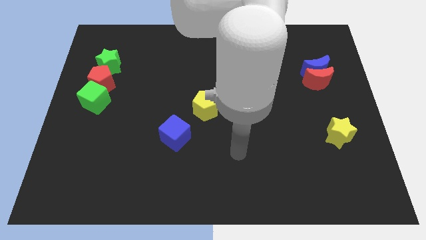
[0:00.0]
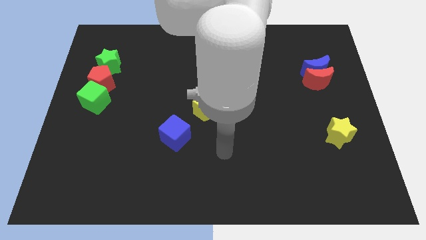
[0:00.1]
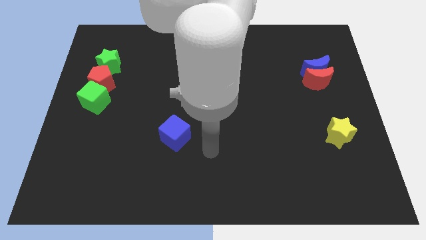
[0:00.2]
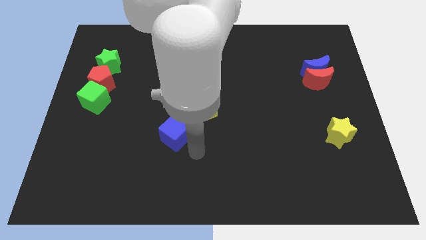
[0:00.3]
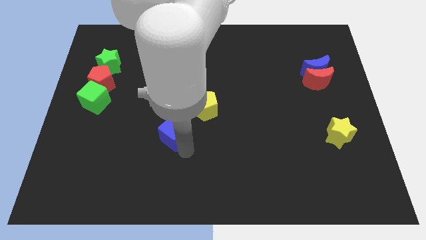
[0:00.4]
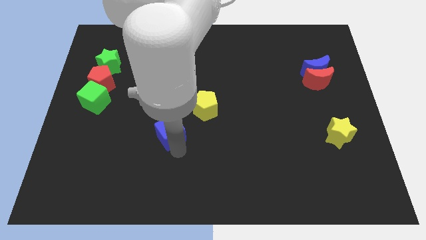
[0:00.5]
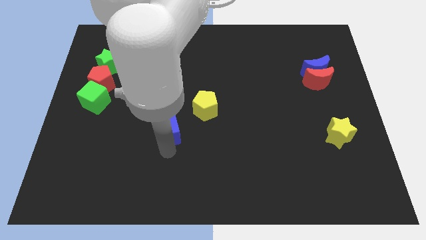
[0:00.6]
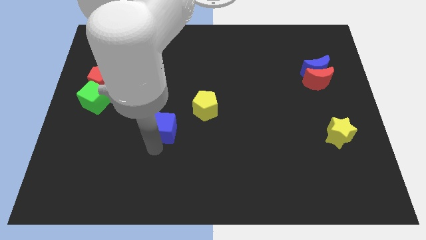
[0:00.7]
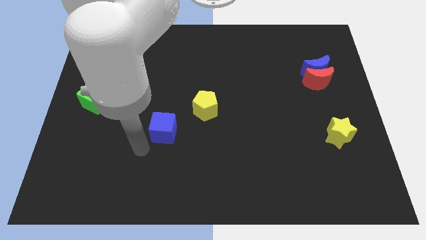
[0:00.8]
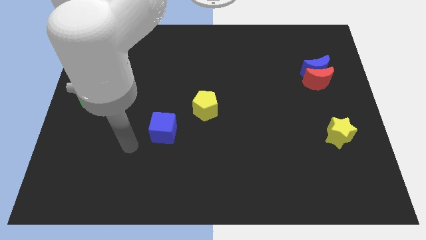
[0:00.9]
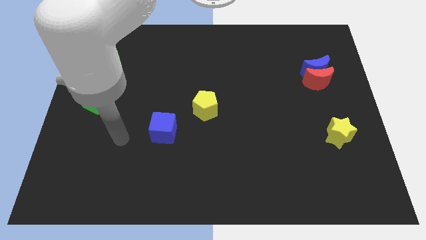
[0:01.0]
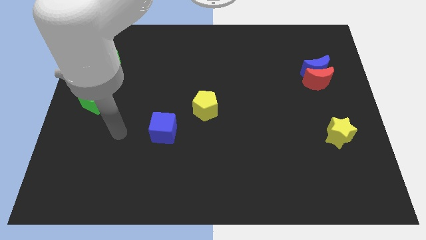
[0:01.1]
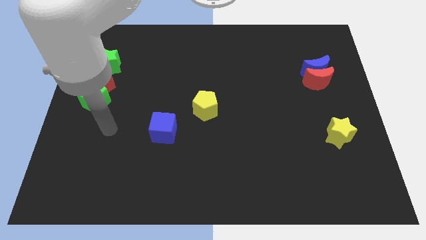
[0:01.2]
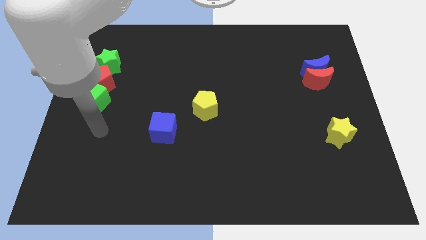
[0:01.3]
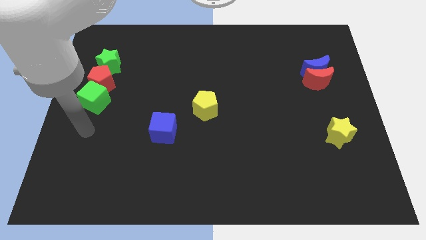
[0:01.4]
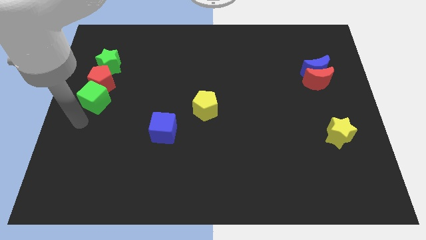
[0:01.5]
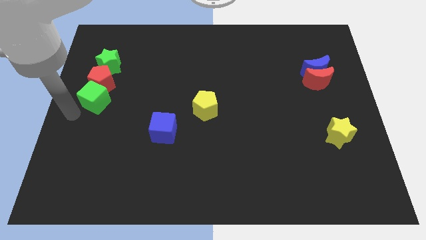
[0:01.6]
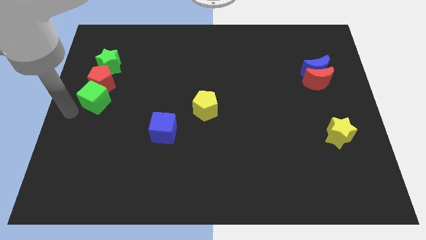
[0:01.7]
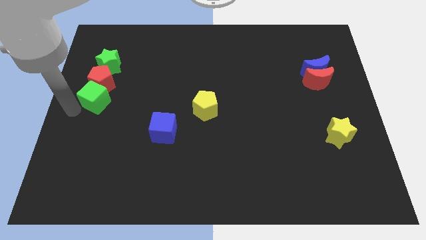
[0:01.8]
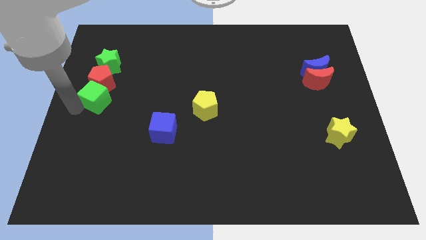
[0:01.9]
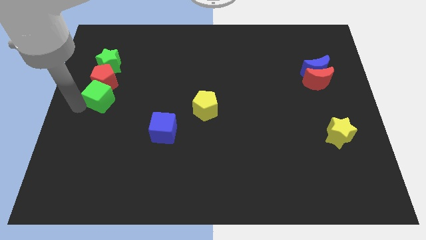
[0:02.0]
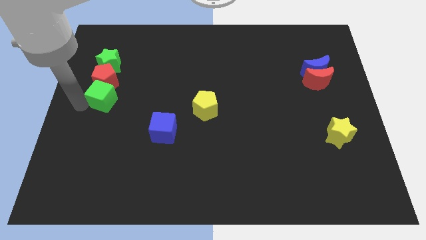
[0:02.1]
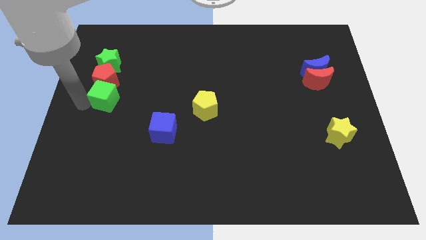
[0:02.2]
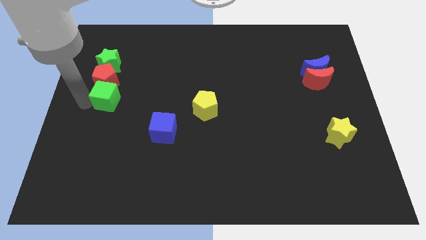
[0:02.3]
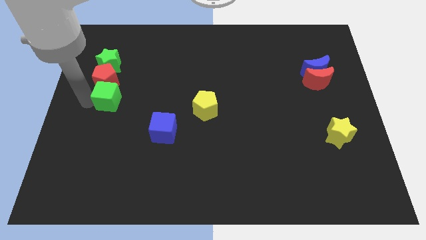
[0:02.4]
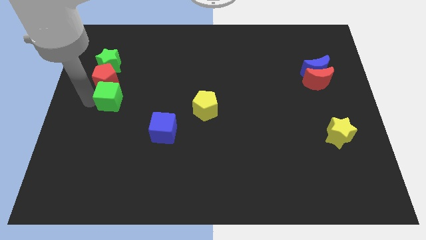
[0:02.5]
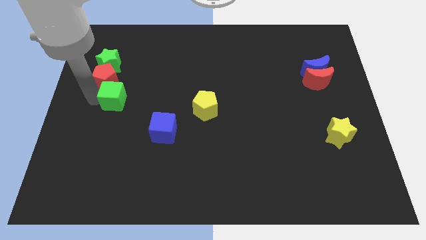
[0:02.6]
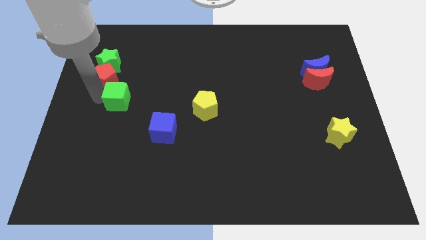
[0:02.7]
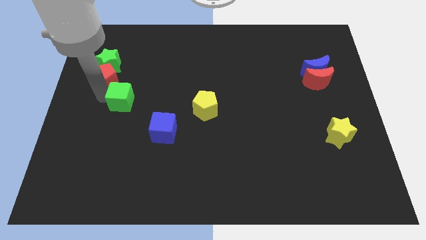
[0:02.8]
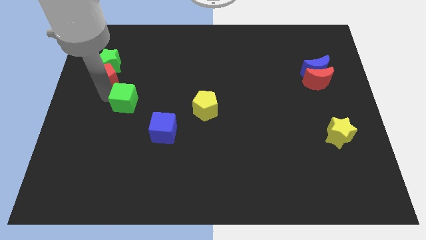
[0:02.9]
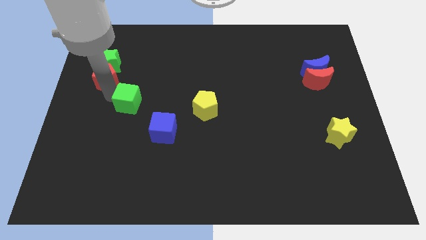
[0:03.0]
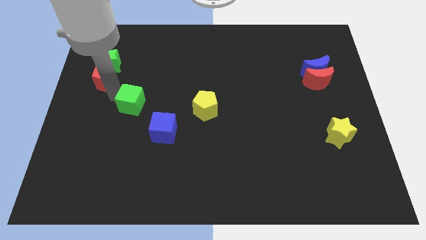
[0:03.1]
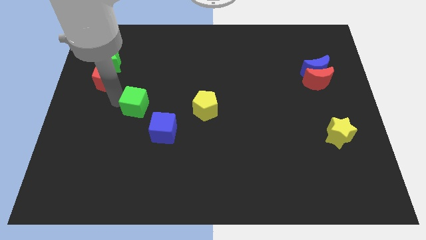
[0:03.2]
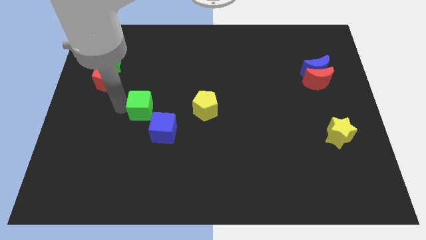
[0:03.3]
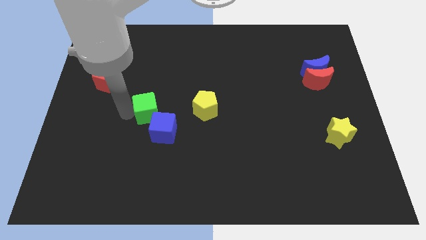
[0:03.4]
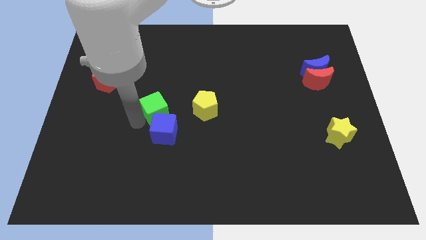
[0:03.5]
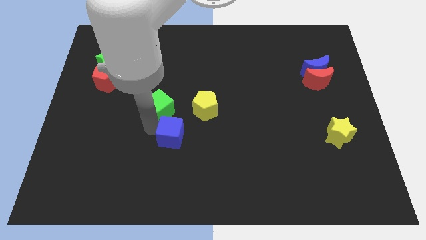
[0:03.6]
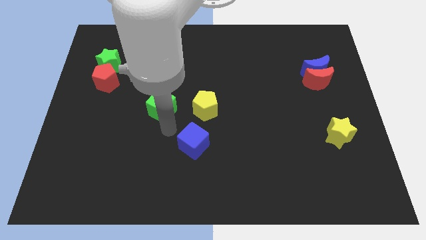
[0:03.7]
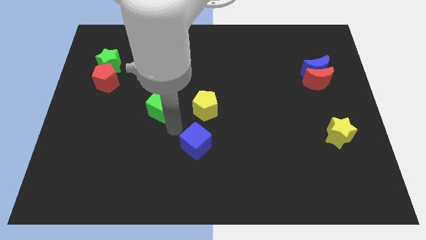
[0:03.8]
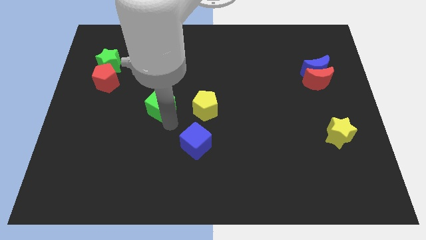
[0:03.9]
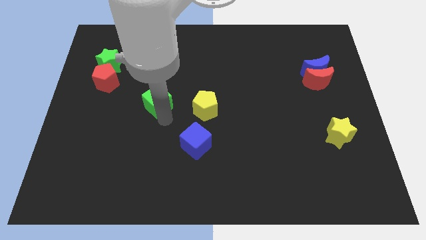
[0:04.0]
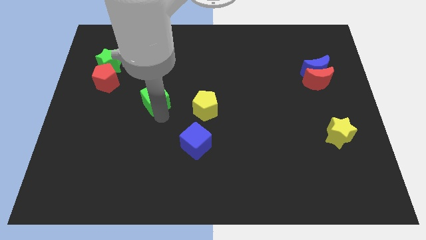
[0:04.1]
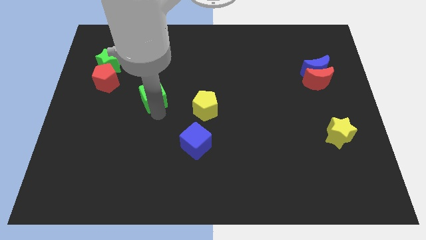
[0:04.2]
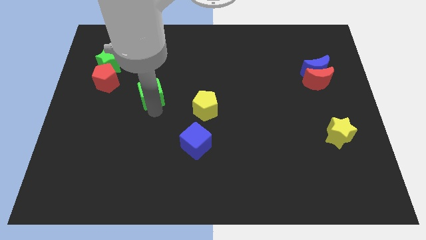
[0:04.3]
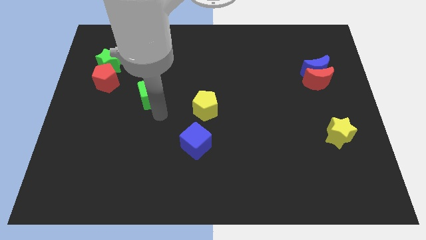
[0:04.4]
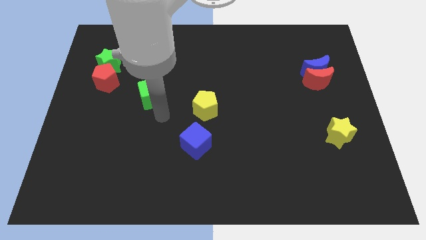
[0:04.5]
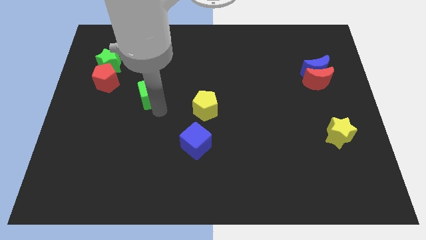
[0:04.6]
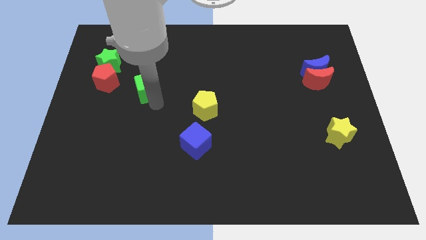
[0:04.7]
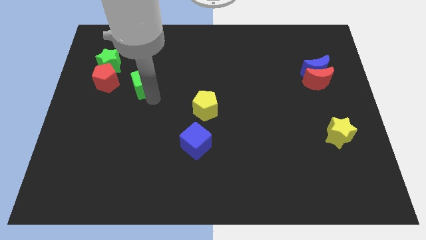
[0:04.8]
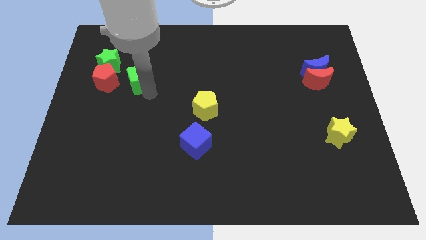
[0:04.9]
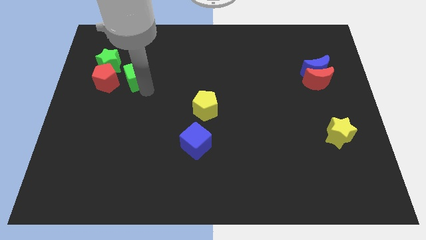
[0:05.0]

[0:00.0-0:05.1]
move the green cube just right of the green star

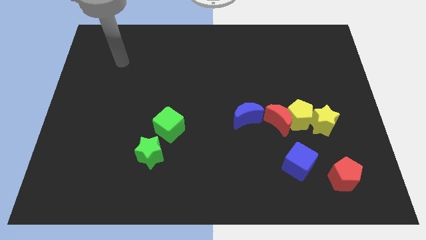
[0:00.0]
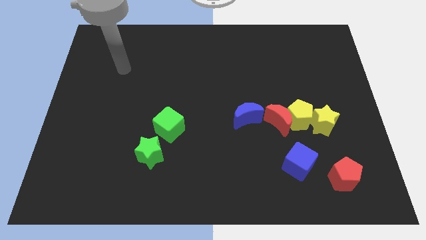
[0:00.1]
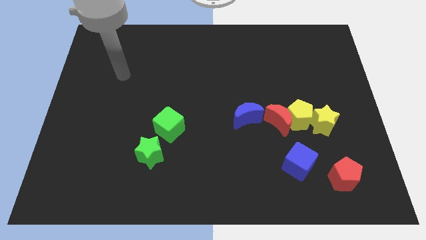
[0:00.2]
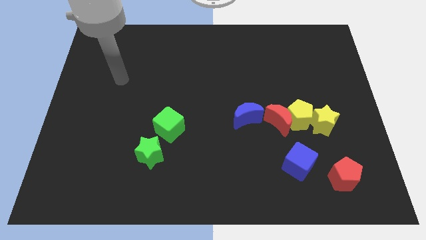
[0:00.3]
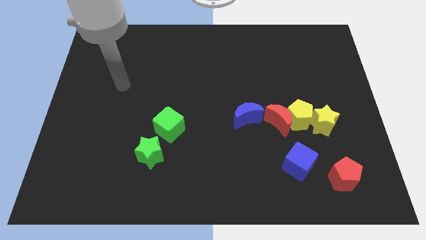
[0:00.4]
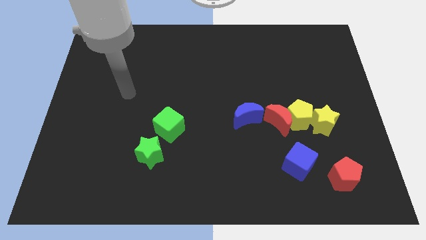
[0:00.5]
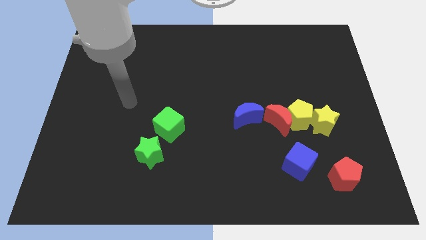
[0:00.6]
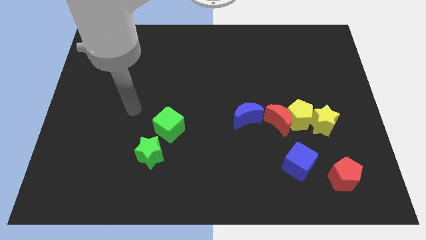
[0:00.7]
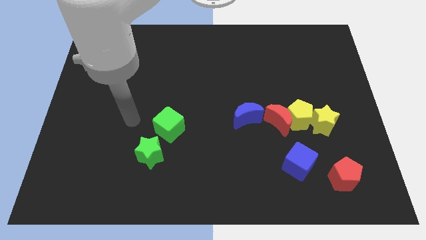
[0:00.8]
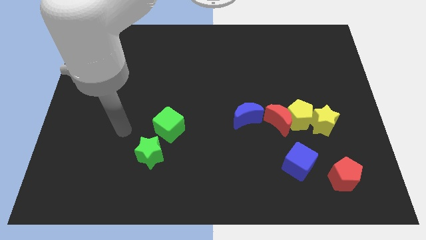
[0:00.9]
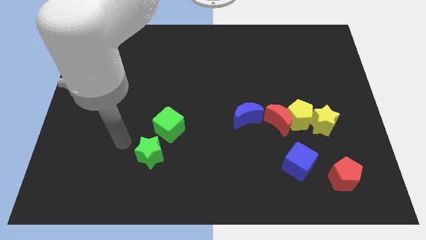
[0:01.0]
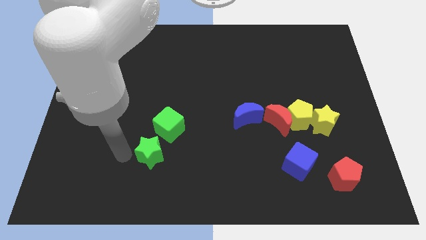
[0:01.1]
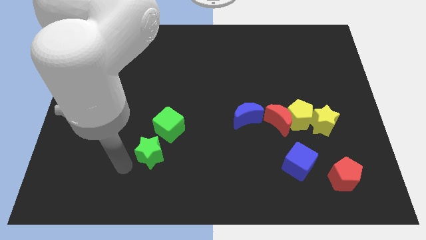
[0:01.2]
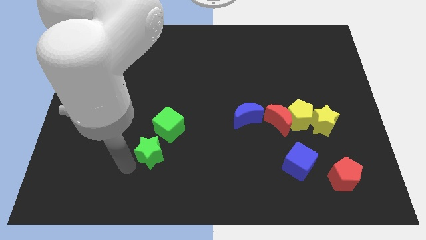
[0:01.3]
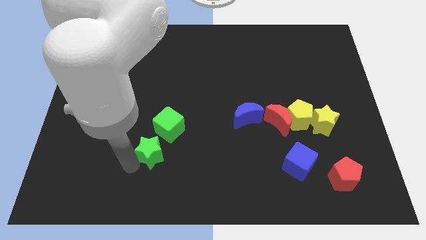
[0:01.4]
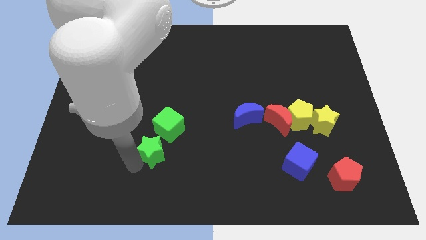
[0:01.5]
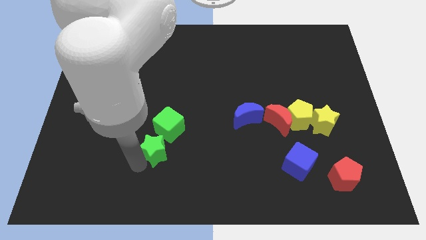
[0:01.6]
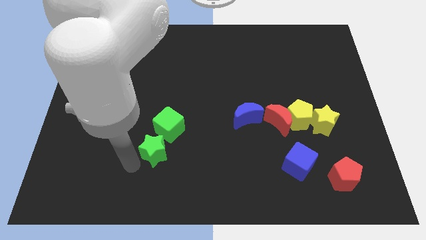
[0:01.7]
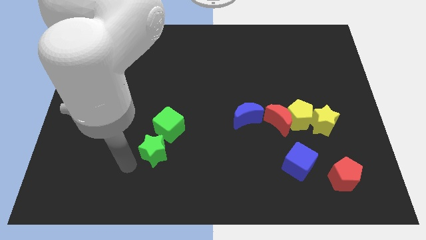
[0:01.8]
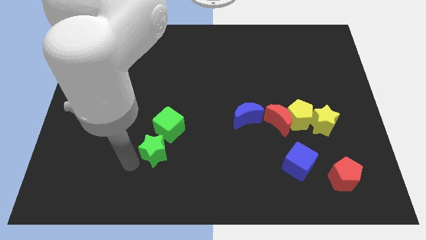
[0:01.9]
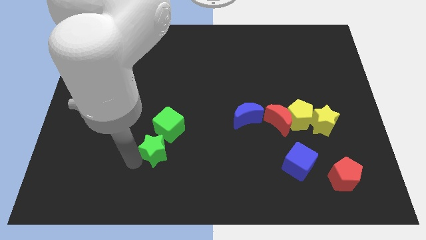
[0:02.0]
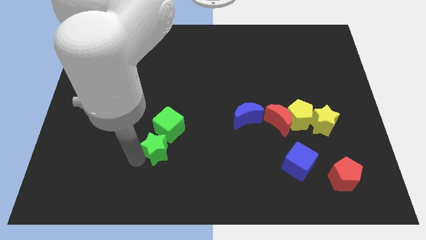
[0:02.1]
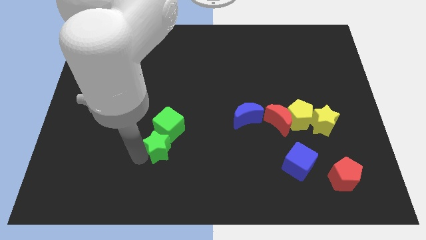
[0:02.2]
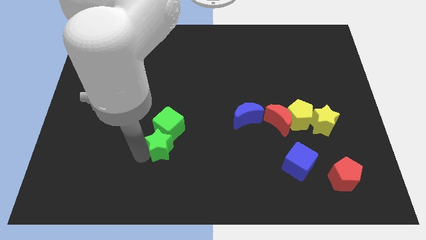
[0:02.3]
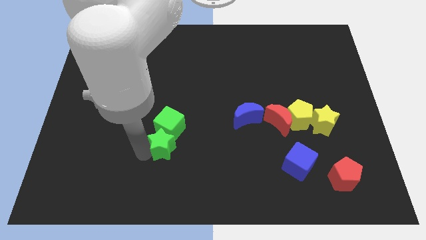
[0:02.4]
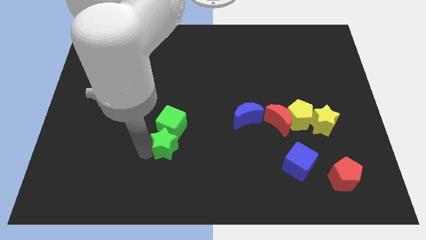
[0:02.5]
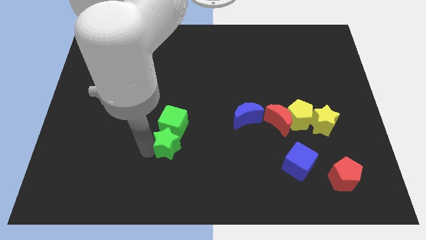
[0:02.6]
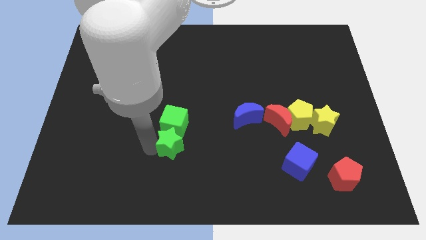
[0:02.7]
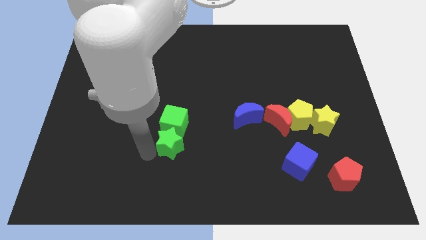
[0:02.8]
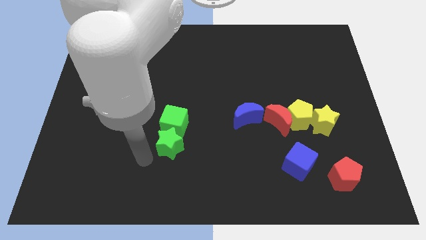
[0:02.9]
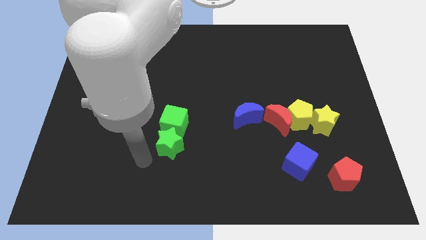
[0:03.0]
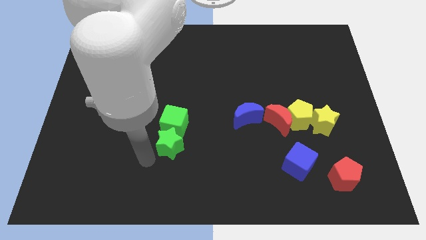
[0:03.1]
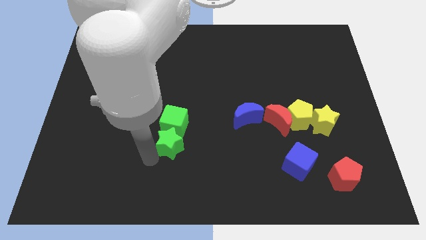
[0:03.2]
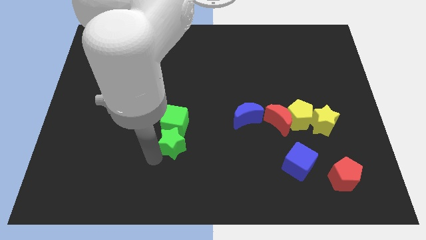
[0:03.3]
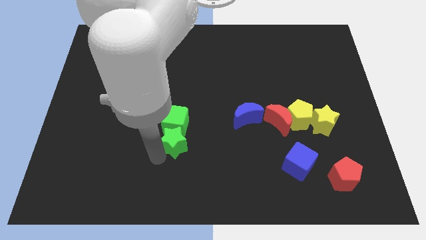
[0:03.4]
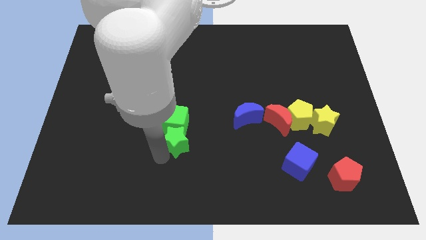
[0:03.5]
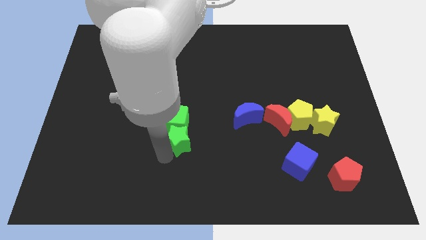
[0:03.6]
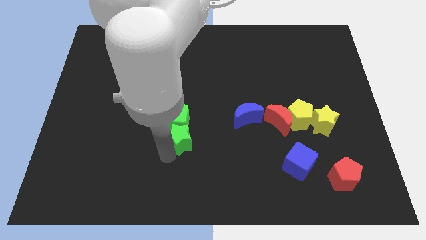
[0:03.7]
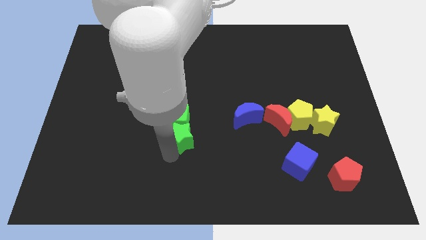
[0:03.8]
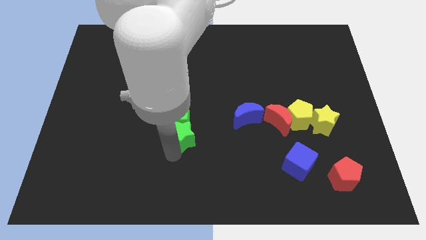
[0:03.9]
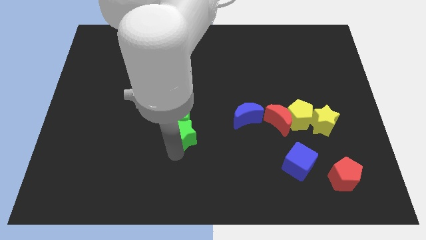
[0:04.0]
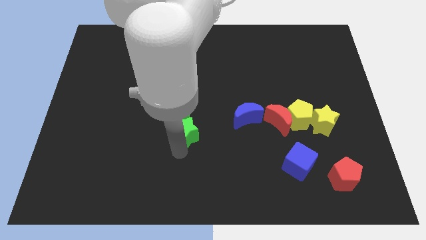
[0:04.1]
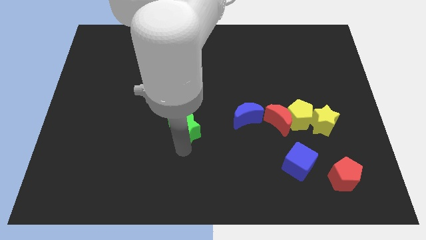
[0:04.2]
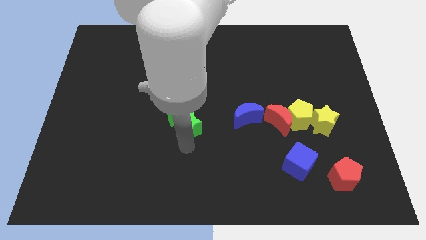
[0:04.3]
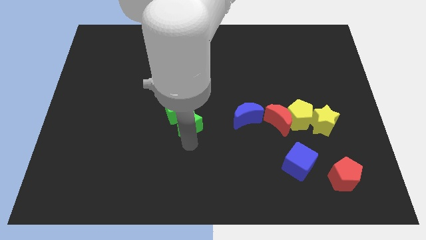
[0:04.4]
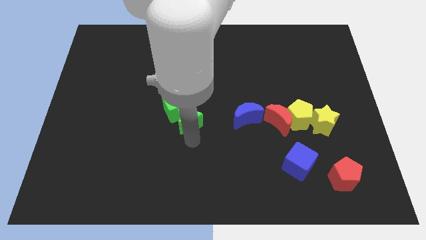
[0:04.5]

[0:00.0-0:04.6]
push the green star just right of the green cube
